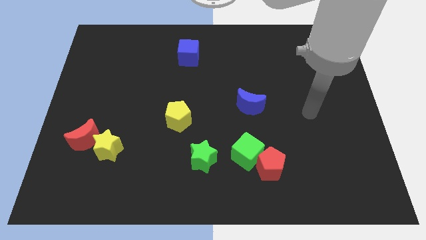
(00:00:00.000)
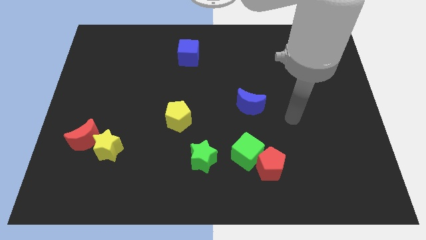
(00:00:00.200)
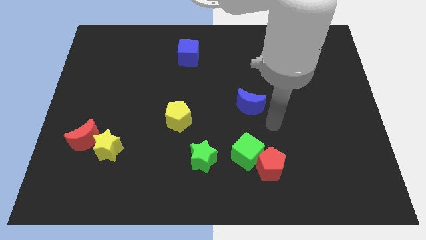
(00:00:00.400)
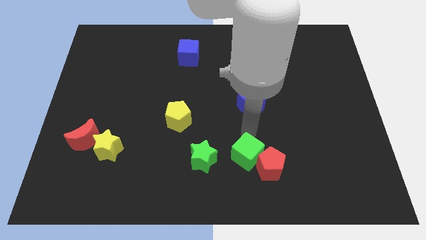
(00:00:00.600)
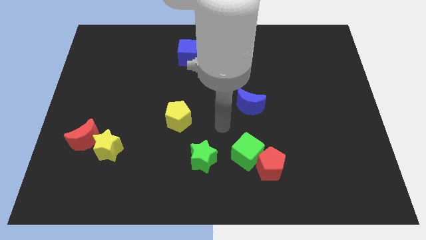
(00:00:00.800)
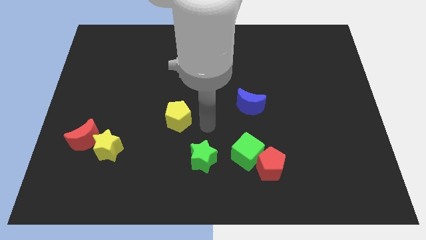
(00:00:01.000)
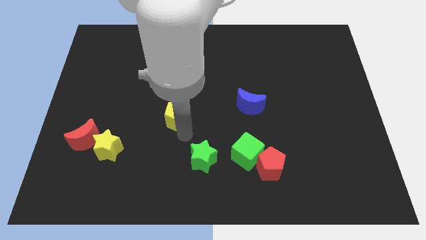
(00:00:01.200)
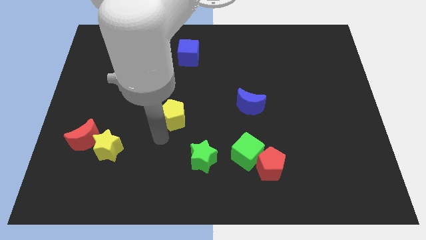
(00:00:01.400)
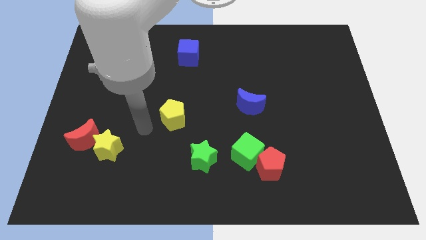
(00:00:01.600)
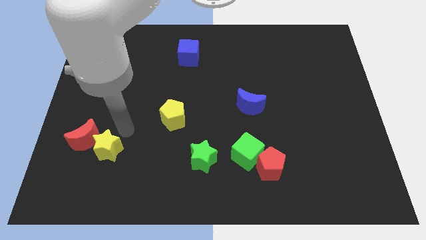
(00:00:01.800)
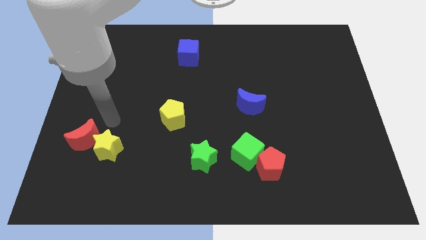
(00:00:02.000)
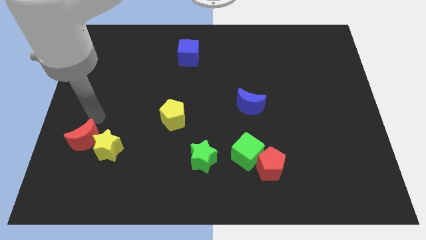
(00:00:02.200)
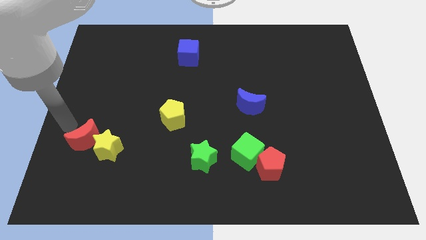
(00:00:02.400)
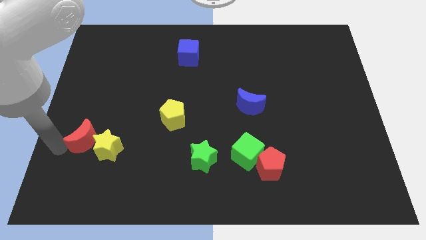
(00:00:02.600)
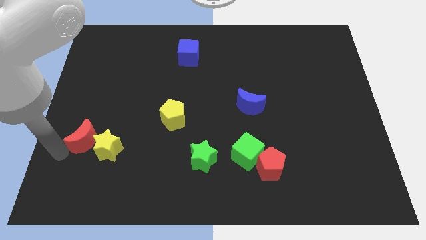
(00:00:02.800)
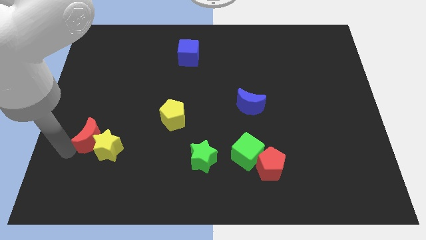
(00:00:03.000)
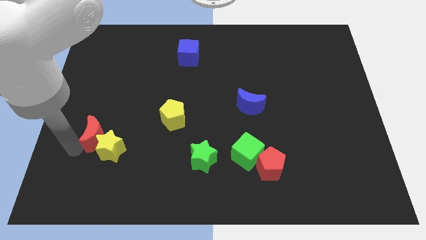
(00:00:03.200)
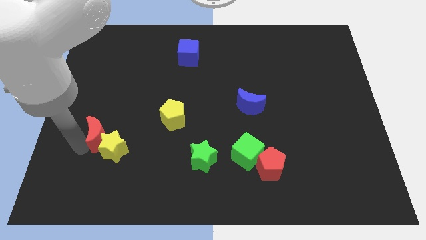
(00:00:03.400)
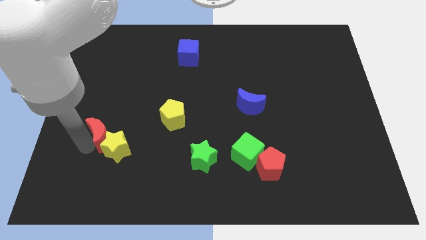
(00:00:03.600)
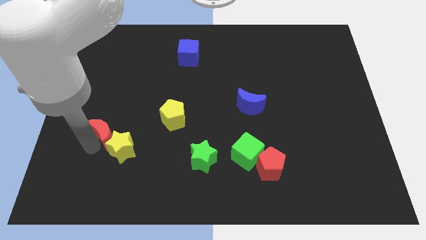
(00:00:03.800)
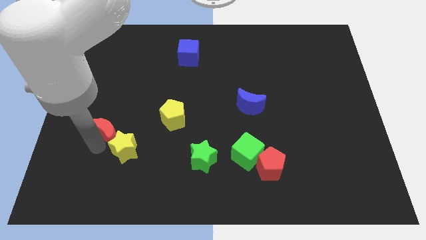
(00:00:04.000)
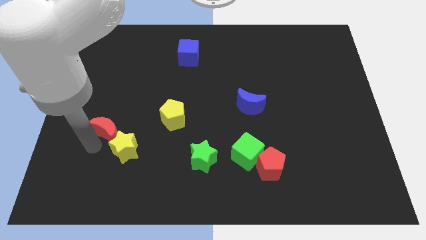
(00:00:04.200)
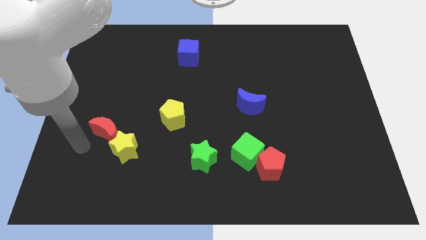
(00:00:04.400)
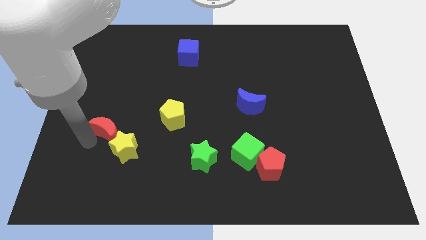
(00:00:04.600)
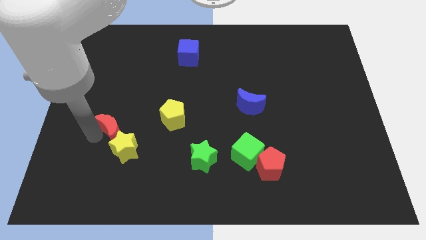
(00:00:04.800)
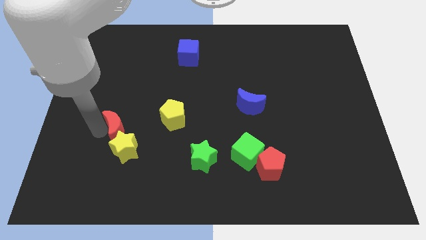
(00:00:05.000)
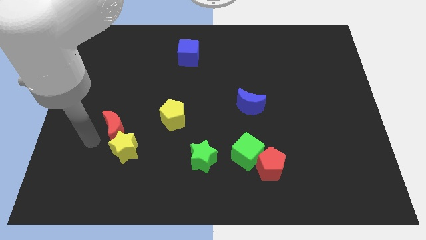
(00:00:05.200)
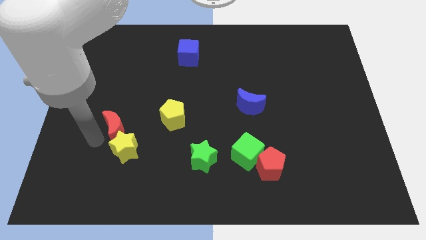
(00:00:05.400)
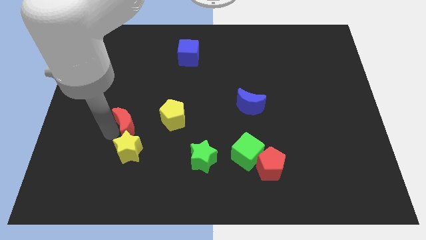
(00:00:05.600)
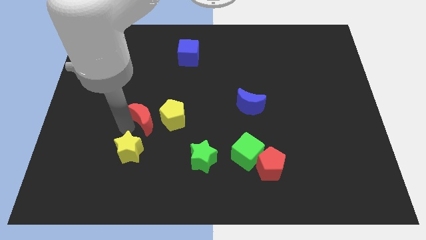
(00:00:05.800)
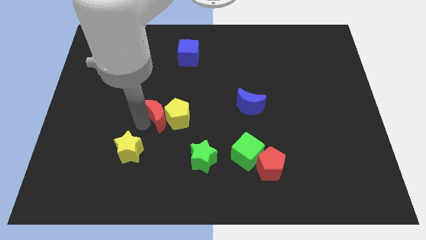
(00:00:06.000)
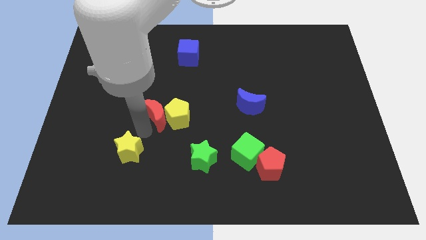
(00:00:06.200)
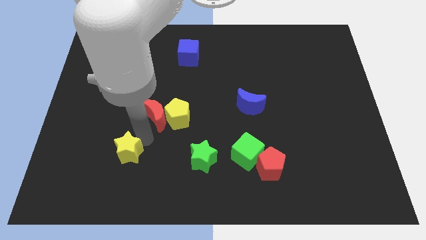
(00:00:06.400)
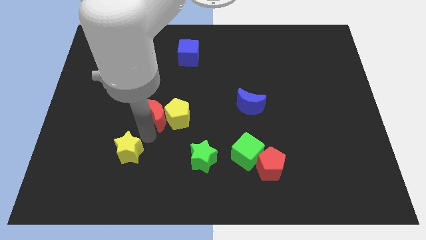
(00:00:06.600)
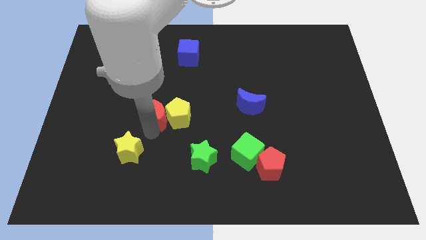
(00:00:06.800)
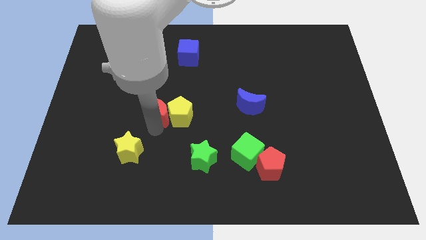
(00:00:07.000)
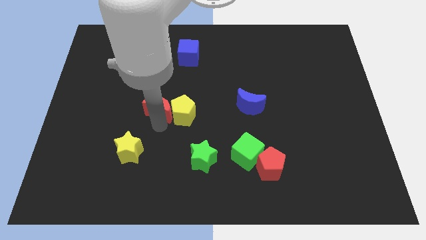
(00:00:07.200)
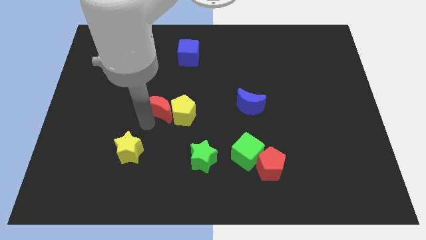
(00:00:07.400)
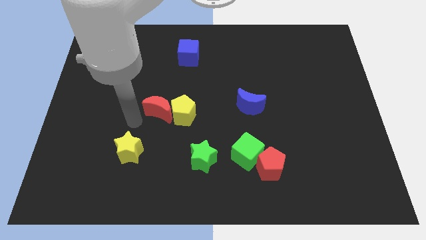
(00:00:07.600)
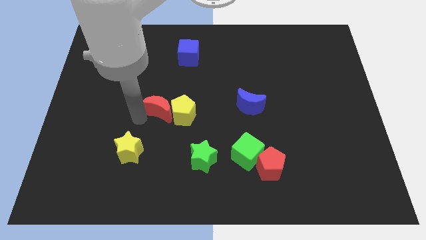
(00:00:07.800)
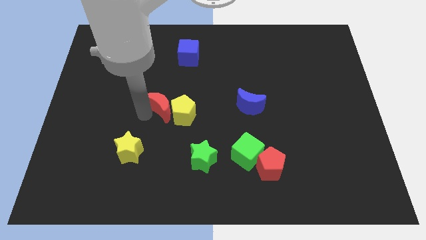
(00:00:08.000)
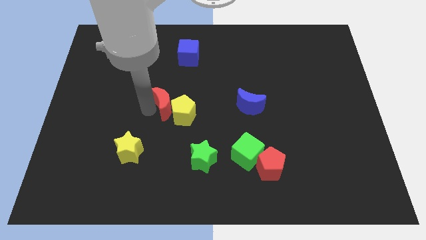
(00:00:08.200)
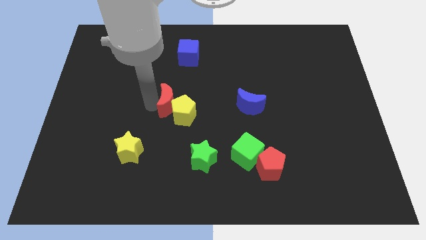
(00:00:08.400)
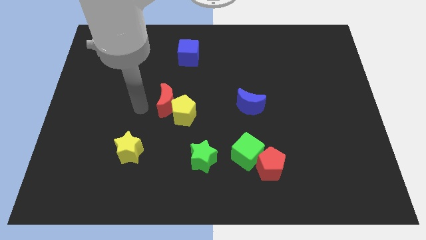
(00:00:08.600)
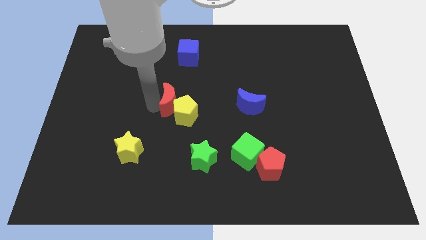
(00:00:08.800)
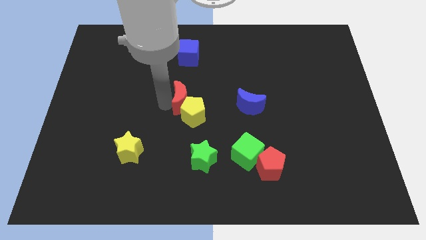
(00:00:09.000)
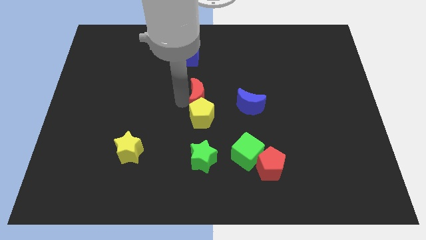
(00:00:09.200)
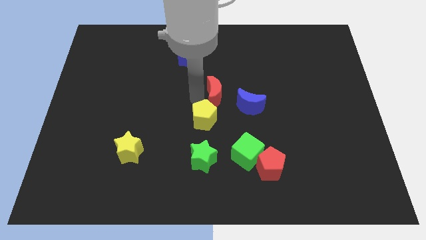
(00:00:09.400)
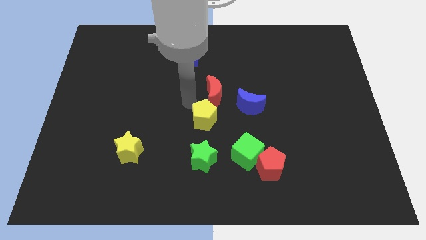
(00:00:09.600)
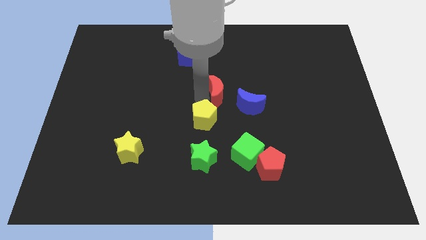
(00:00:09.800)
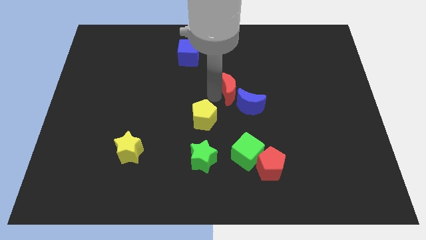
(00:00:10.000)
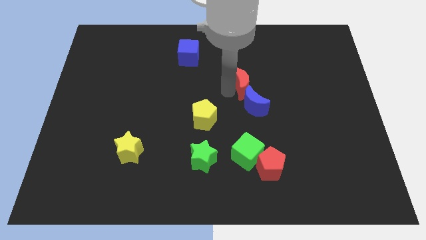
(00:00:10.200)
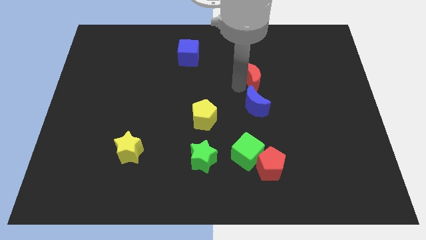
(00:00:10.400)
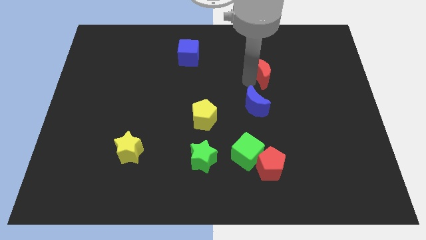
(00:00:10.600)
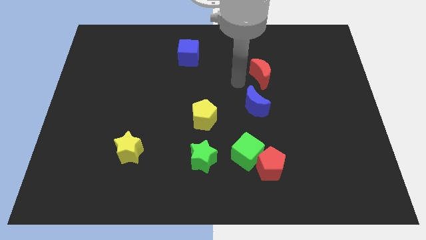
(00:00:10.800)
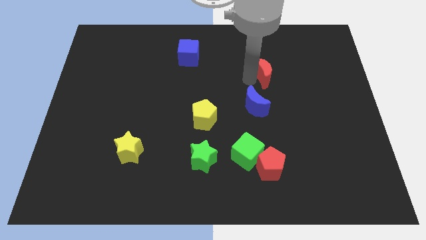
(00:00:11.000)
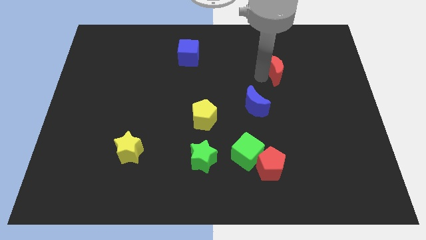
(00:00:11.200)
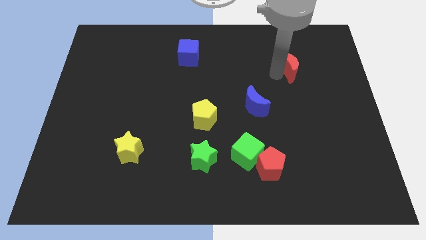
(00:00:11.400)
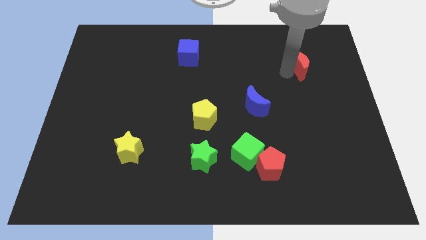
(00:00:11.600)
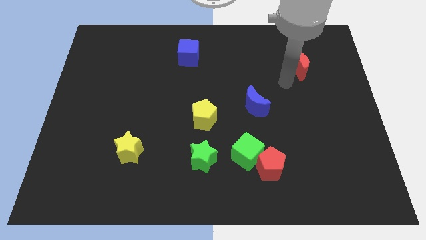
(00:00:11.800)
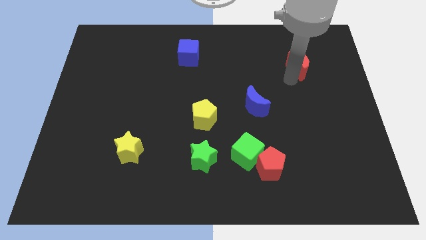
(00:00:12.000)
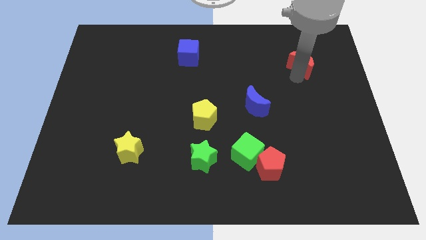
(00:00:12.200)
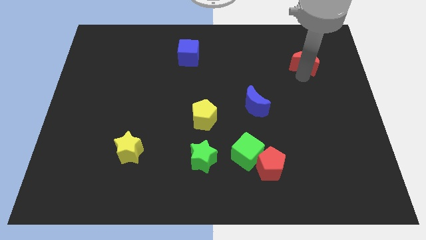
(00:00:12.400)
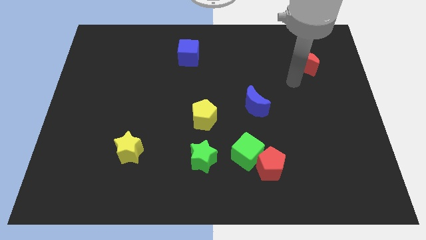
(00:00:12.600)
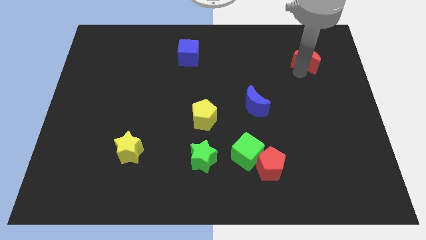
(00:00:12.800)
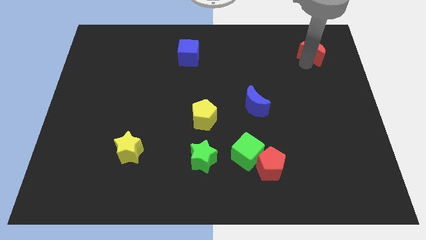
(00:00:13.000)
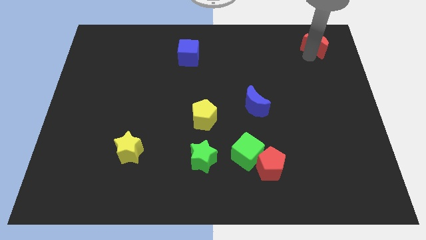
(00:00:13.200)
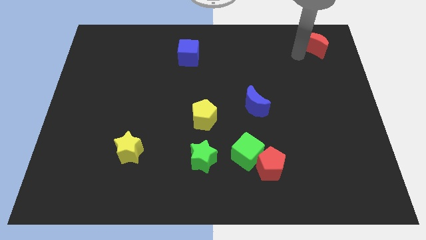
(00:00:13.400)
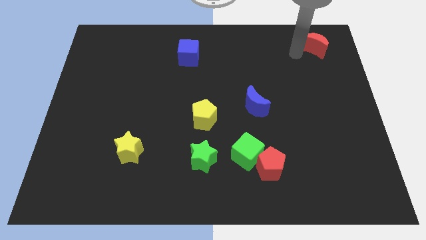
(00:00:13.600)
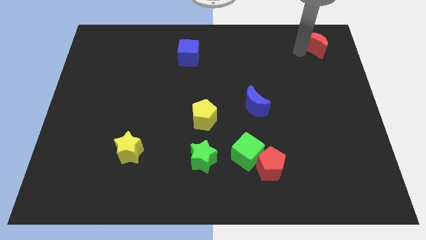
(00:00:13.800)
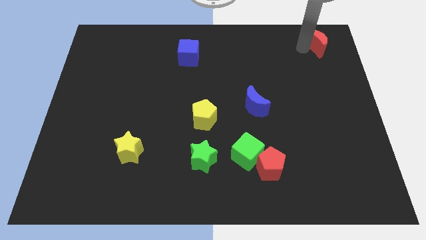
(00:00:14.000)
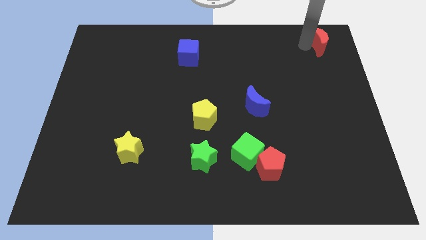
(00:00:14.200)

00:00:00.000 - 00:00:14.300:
move the red moon to the top right
